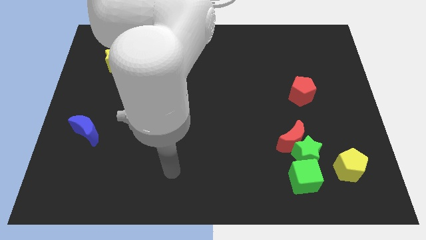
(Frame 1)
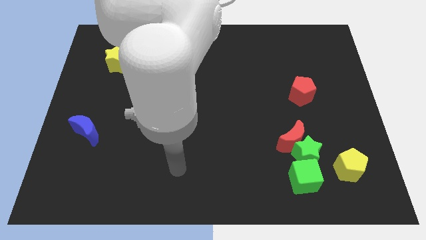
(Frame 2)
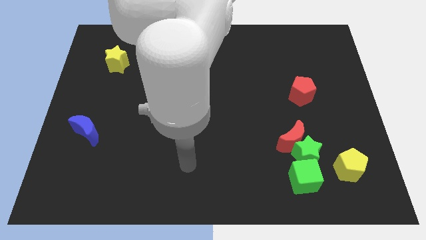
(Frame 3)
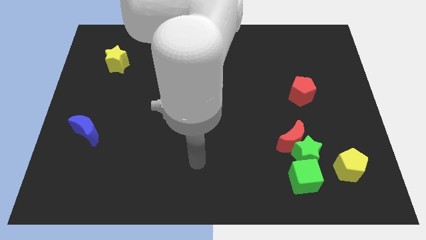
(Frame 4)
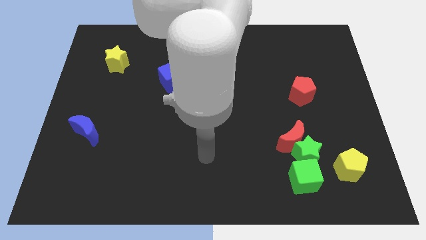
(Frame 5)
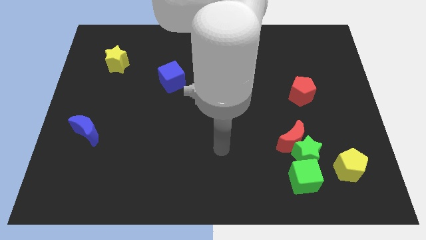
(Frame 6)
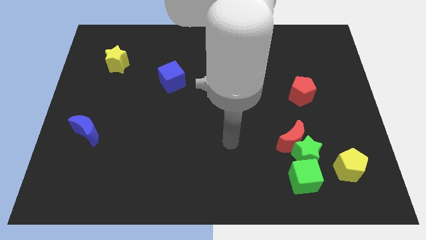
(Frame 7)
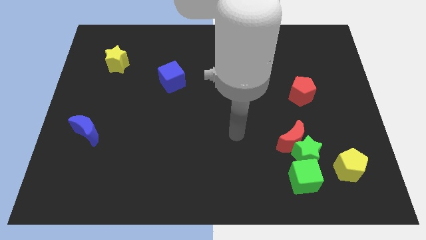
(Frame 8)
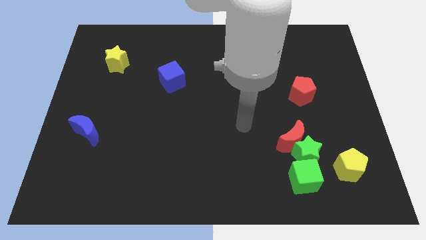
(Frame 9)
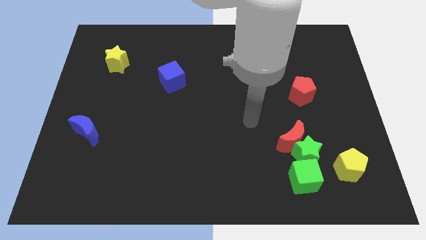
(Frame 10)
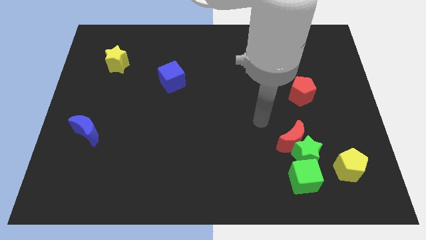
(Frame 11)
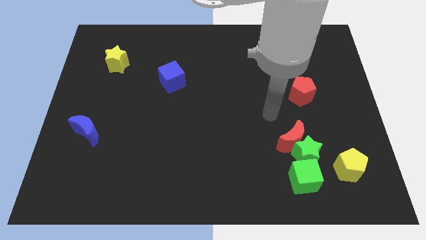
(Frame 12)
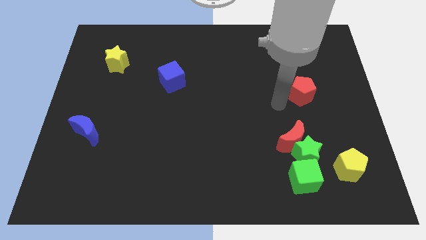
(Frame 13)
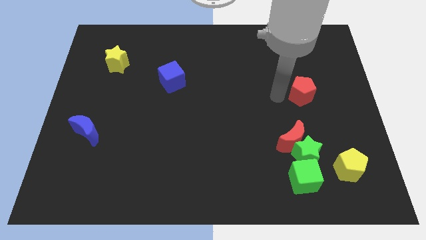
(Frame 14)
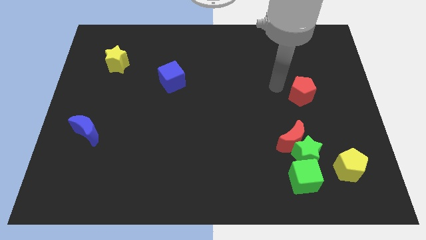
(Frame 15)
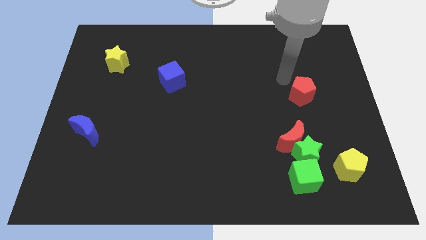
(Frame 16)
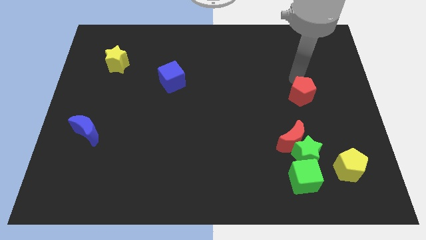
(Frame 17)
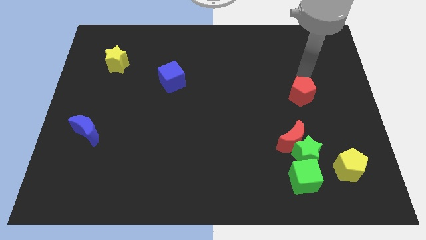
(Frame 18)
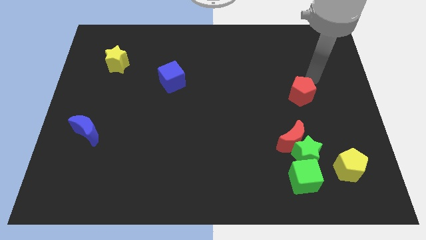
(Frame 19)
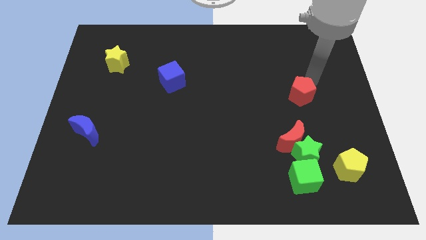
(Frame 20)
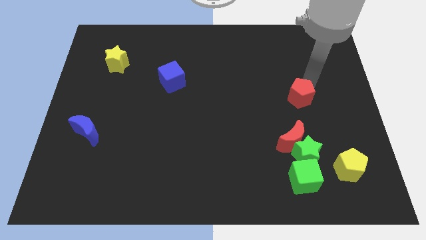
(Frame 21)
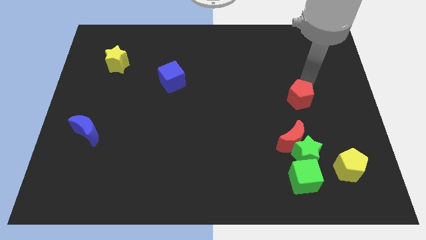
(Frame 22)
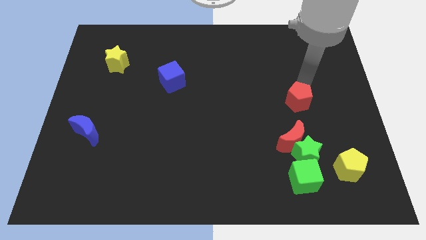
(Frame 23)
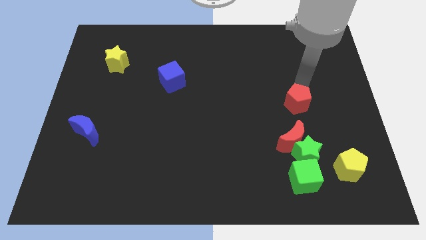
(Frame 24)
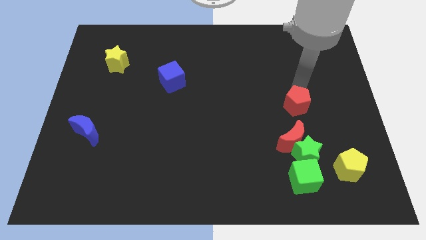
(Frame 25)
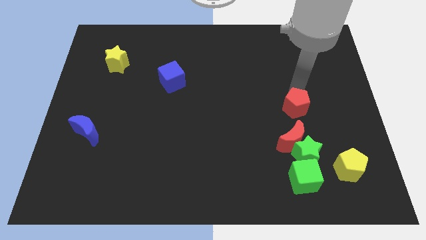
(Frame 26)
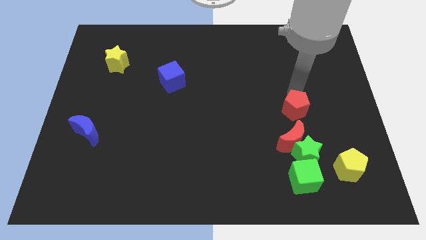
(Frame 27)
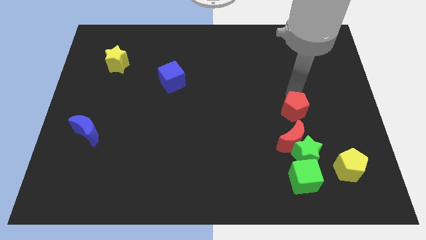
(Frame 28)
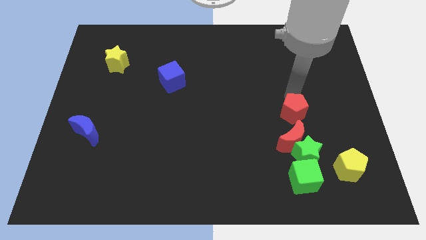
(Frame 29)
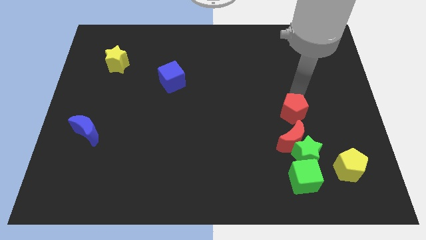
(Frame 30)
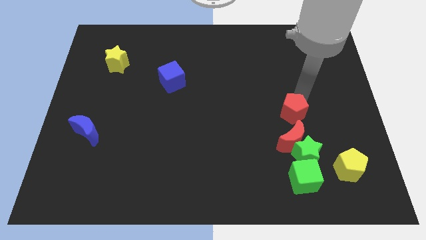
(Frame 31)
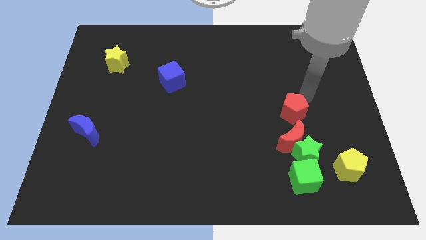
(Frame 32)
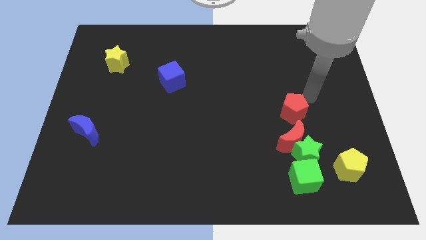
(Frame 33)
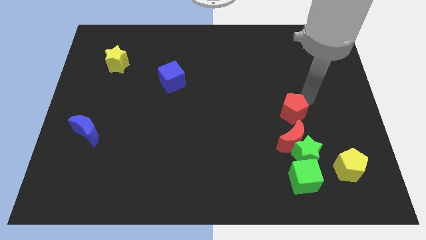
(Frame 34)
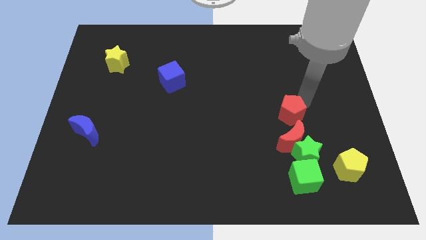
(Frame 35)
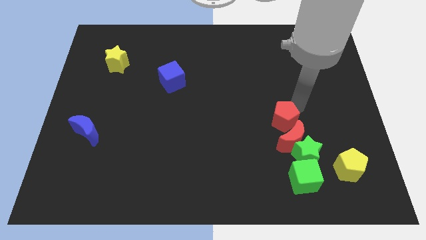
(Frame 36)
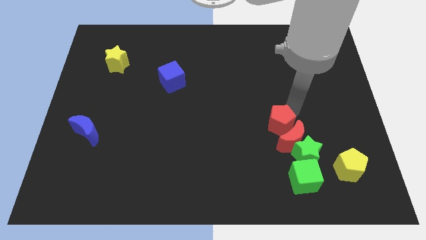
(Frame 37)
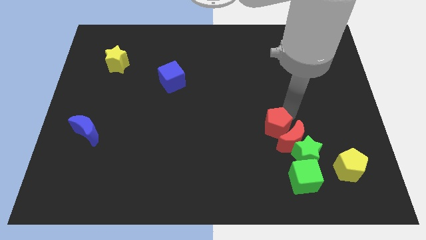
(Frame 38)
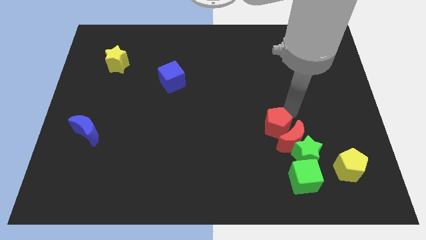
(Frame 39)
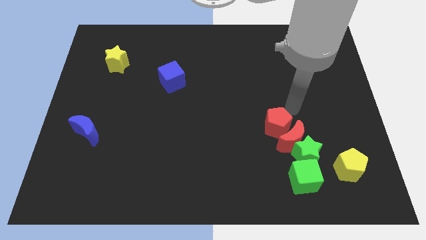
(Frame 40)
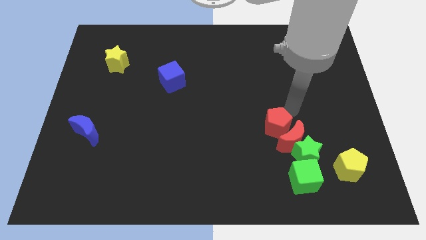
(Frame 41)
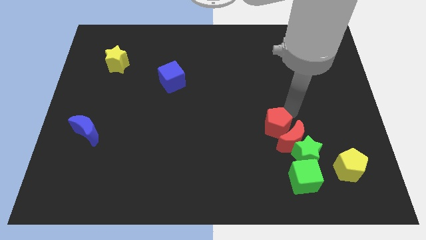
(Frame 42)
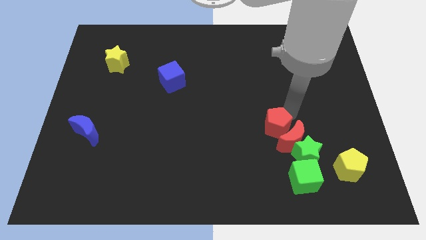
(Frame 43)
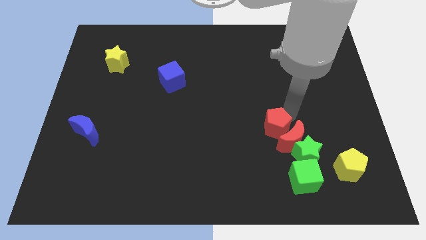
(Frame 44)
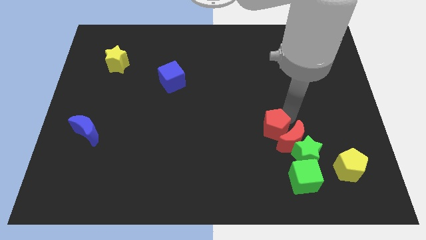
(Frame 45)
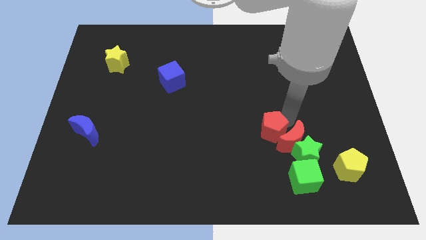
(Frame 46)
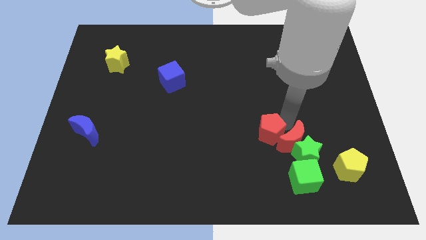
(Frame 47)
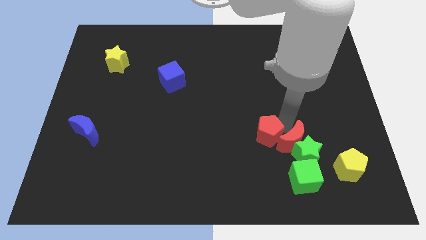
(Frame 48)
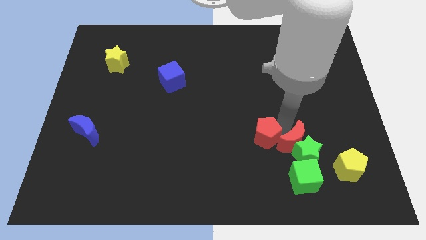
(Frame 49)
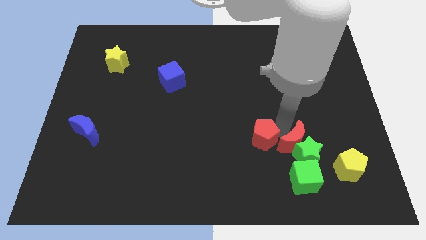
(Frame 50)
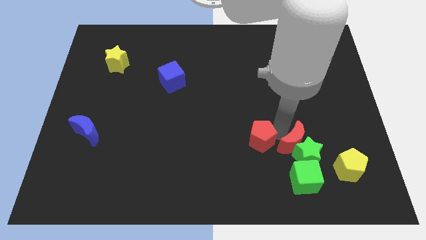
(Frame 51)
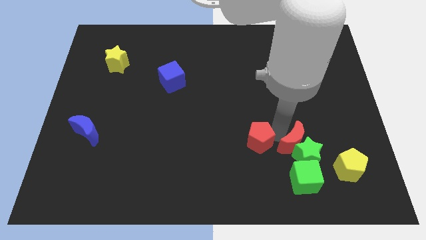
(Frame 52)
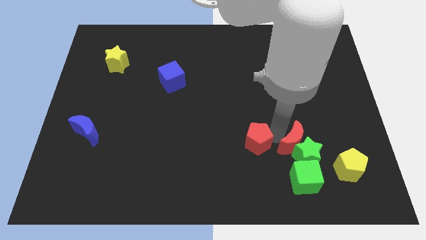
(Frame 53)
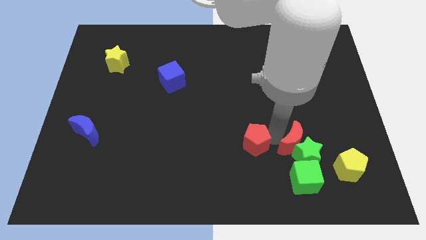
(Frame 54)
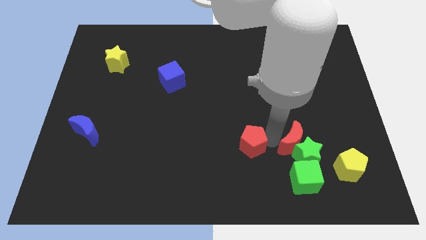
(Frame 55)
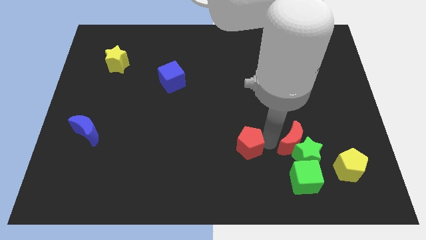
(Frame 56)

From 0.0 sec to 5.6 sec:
move the red pentagon down and to the left

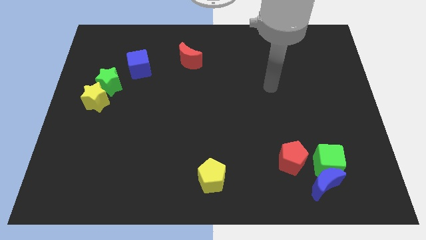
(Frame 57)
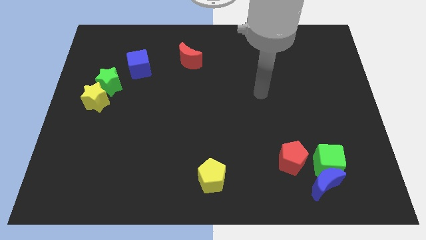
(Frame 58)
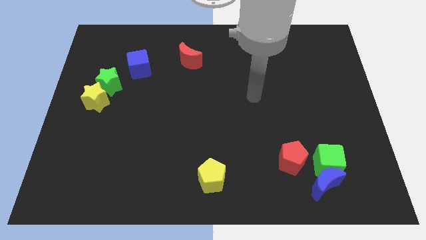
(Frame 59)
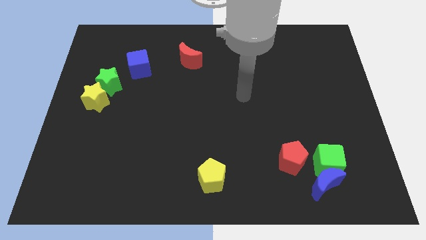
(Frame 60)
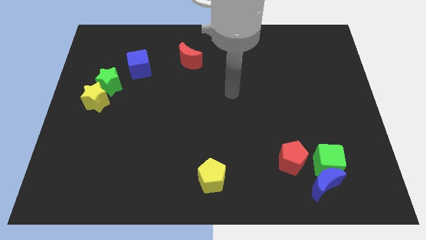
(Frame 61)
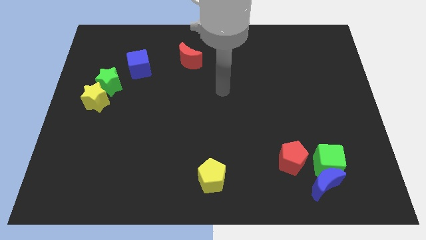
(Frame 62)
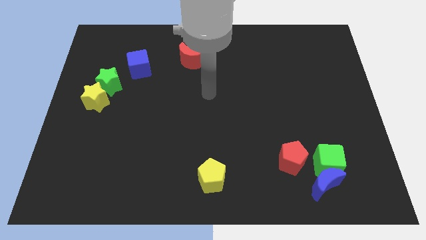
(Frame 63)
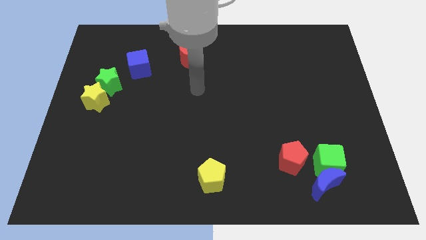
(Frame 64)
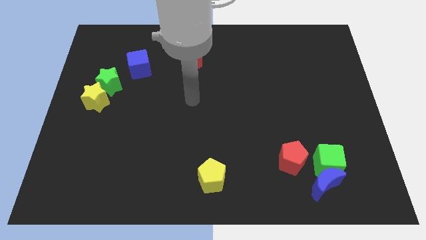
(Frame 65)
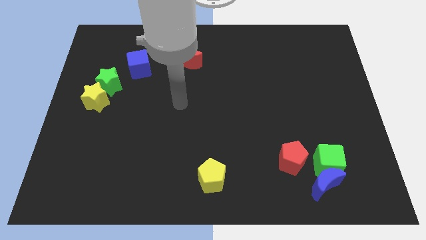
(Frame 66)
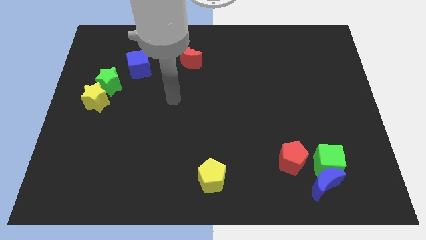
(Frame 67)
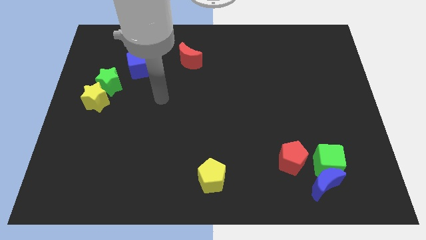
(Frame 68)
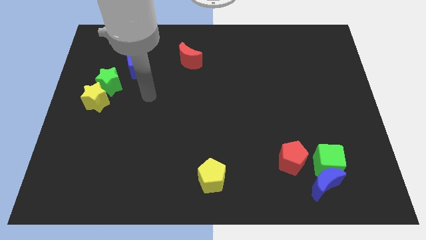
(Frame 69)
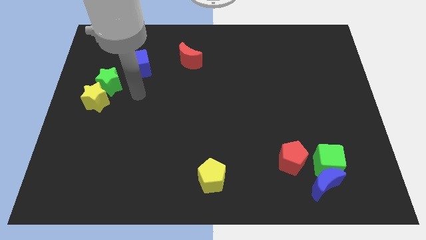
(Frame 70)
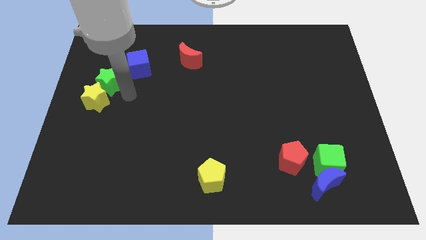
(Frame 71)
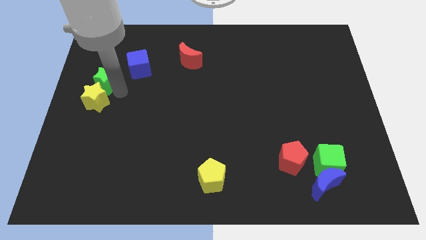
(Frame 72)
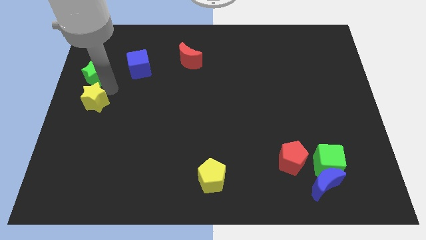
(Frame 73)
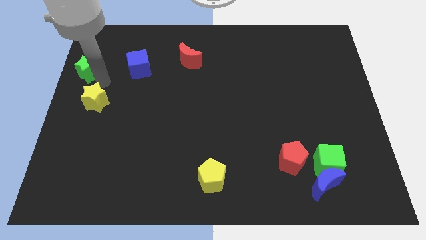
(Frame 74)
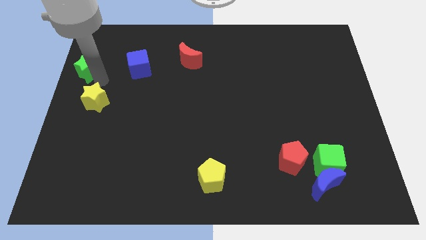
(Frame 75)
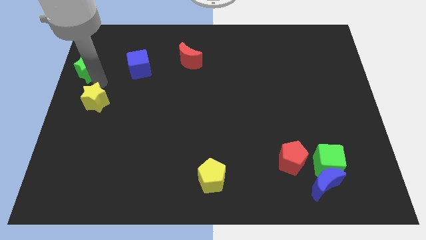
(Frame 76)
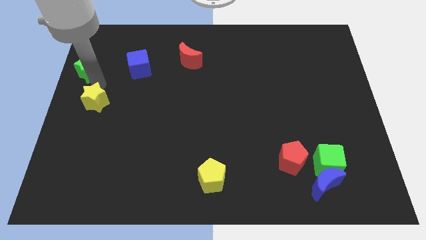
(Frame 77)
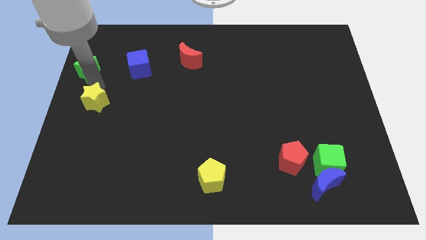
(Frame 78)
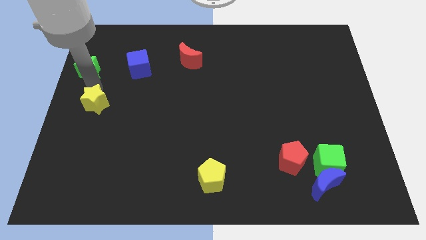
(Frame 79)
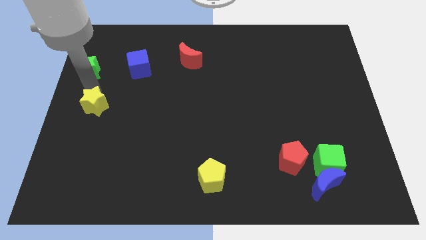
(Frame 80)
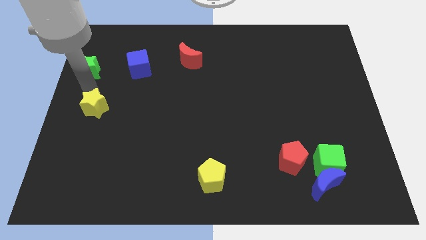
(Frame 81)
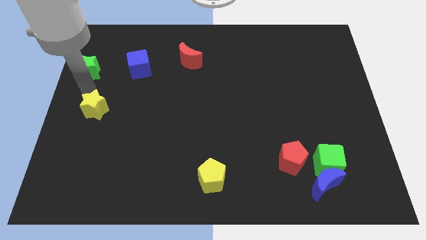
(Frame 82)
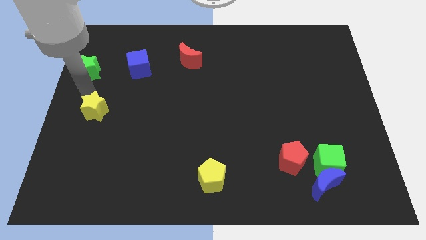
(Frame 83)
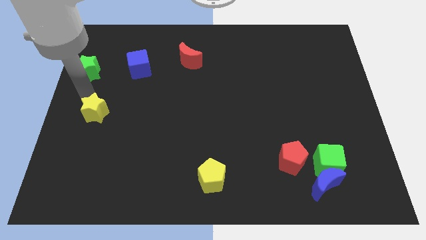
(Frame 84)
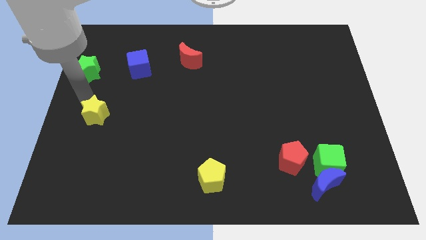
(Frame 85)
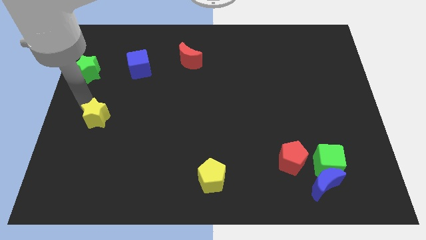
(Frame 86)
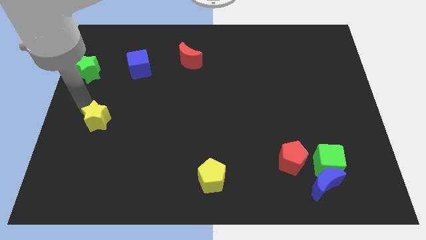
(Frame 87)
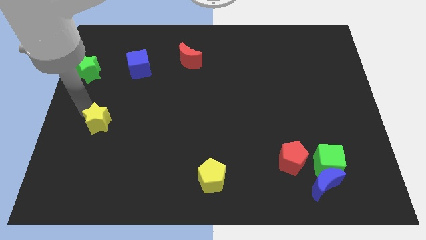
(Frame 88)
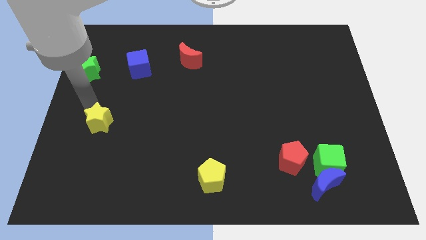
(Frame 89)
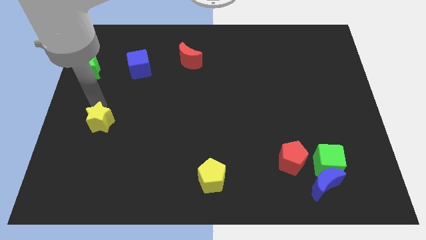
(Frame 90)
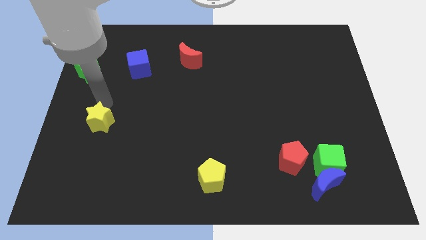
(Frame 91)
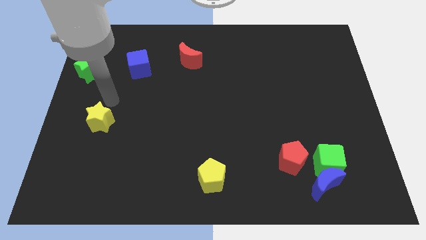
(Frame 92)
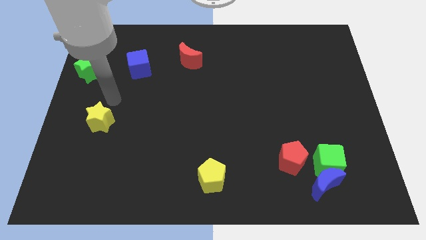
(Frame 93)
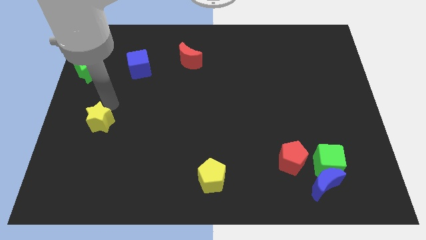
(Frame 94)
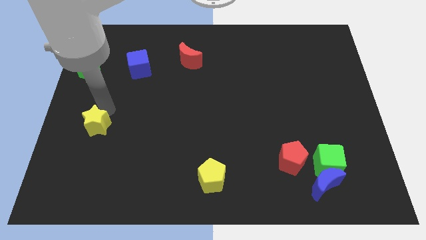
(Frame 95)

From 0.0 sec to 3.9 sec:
slide the yellow star down a little
